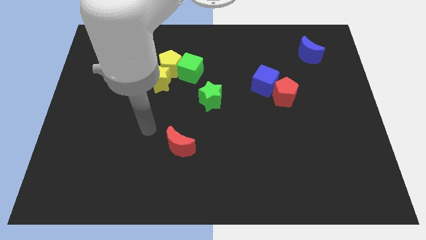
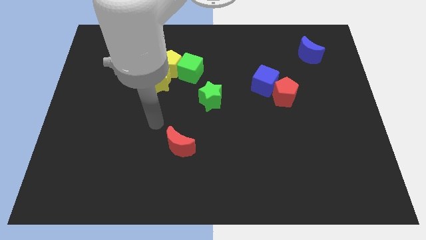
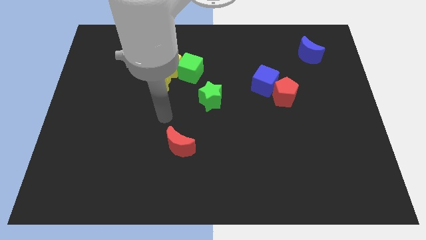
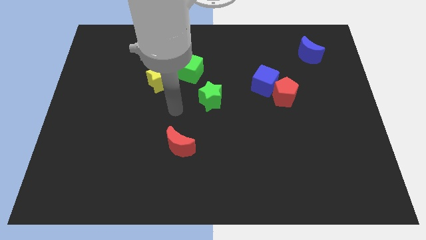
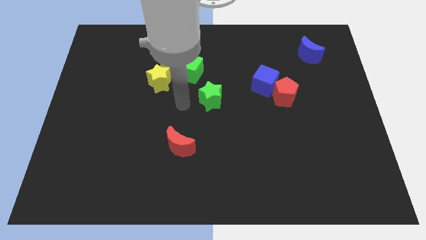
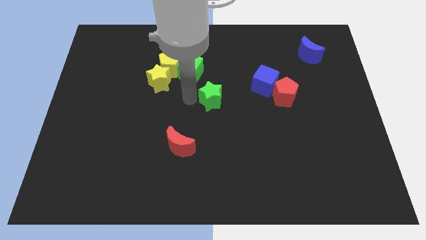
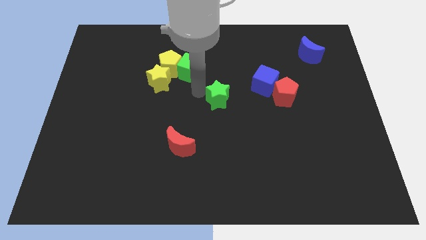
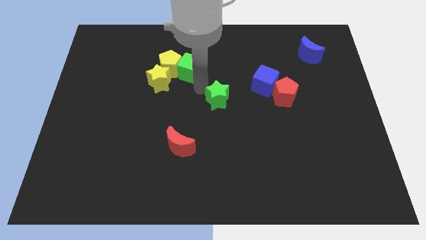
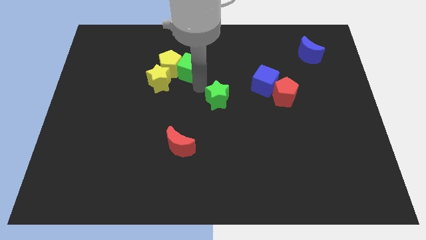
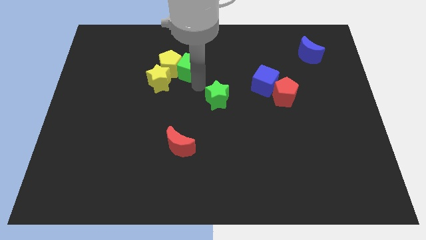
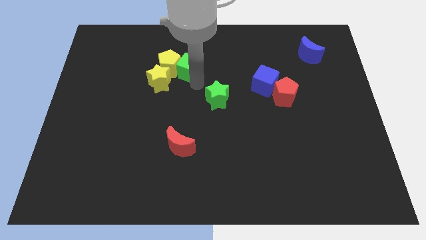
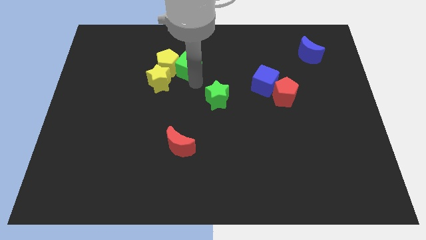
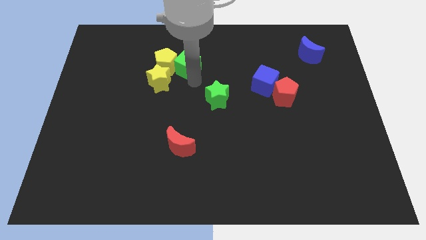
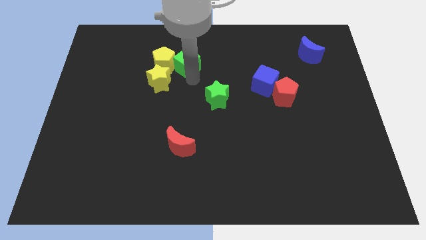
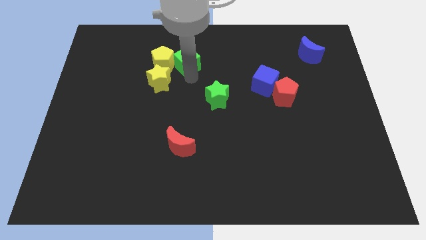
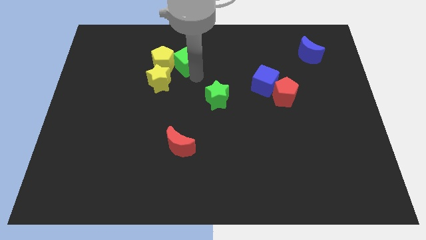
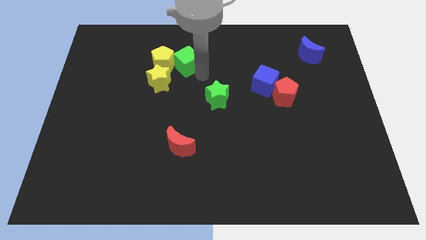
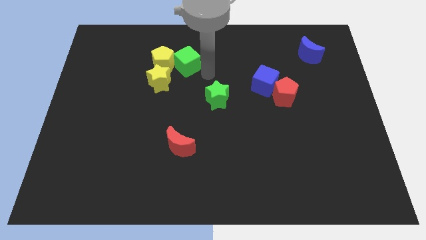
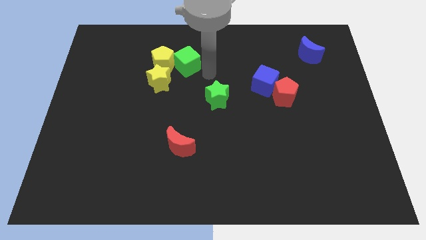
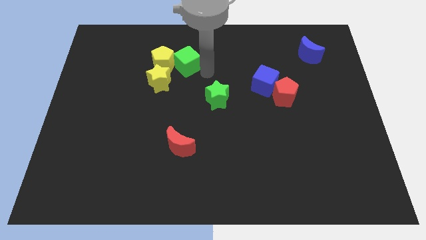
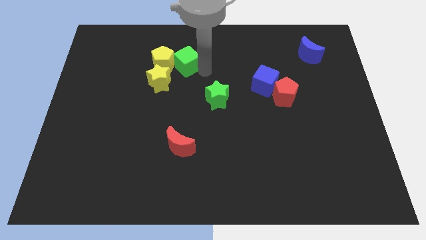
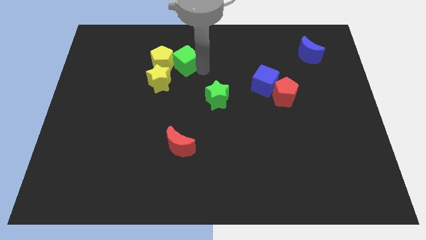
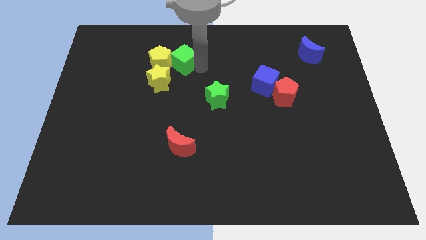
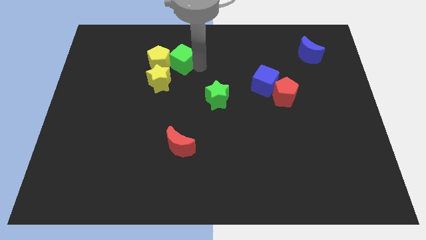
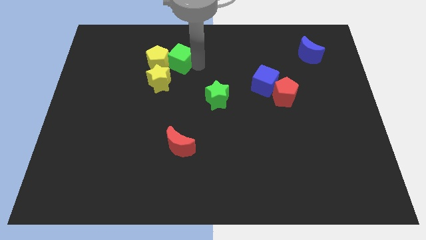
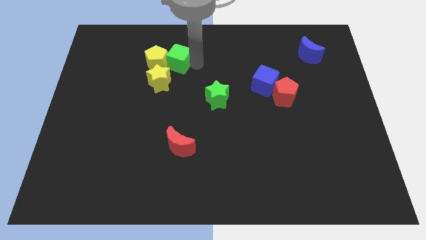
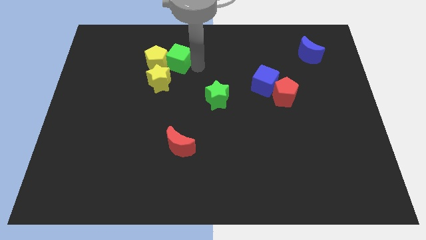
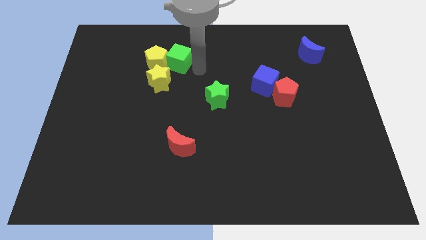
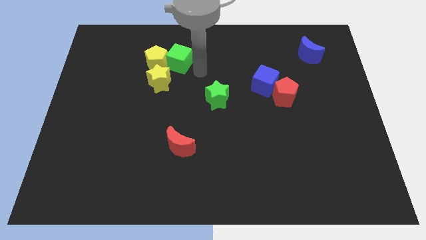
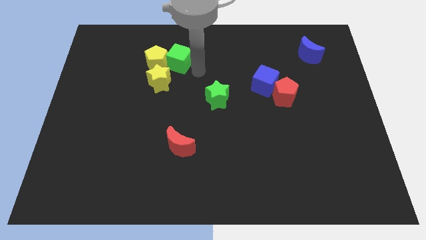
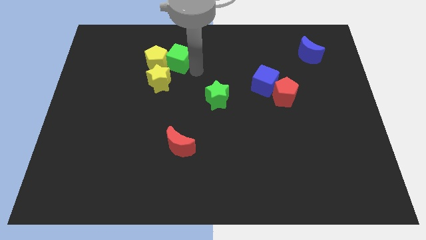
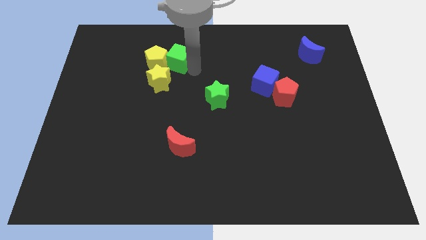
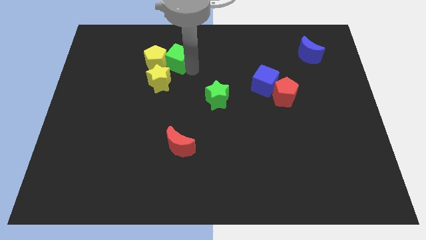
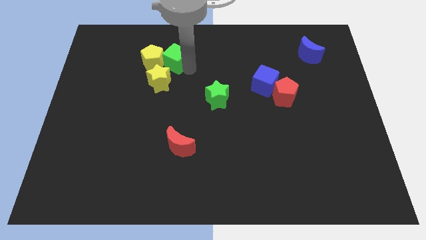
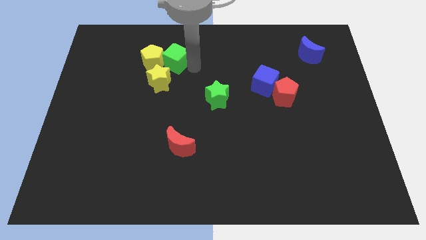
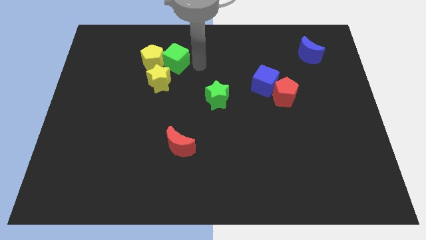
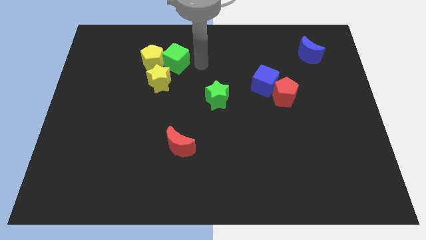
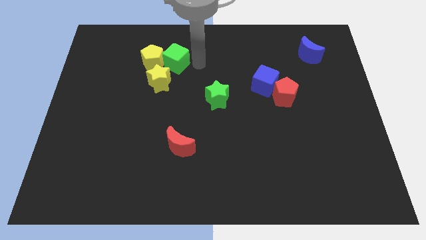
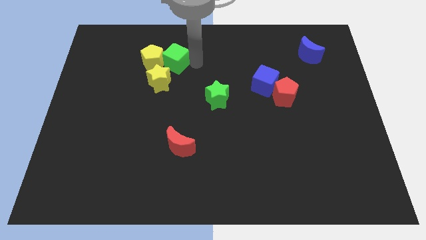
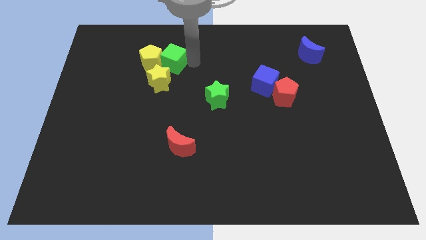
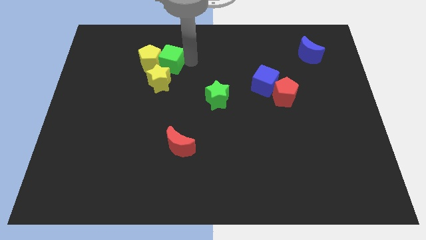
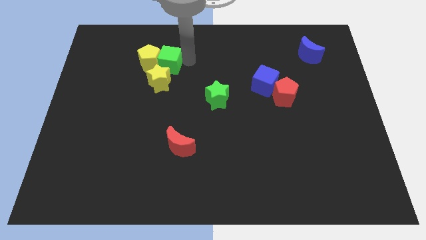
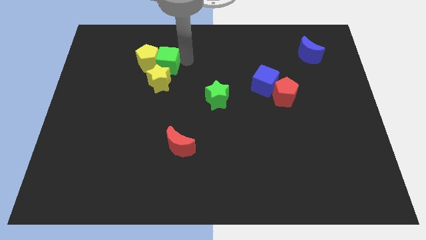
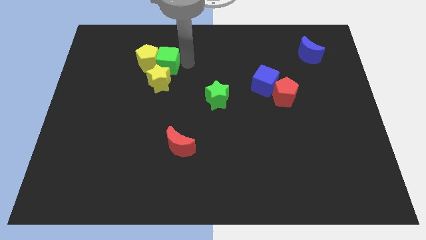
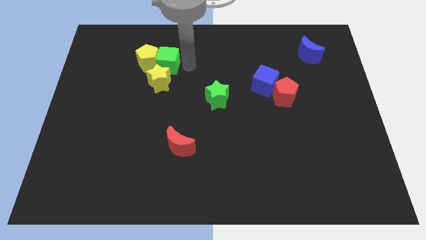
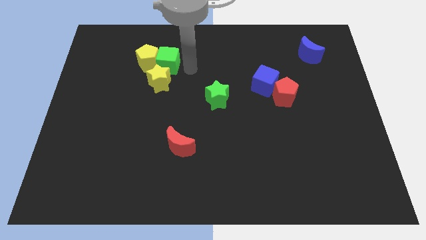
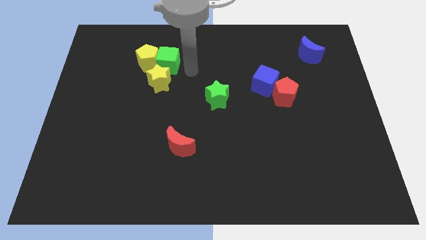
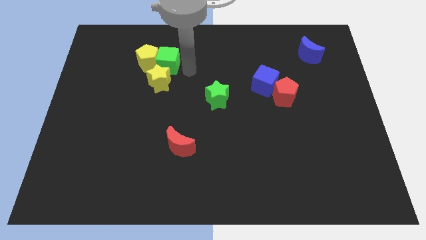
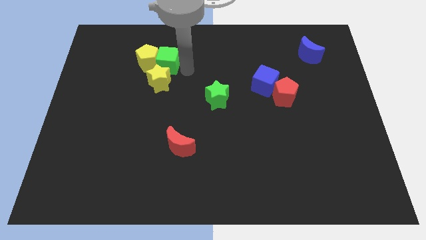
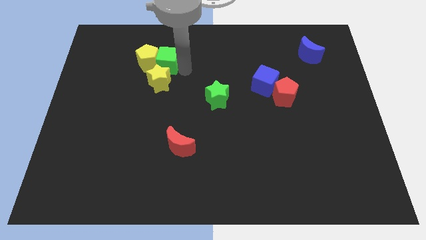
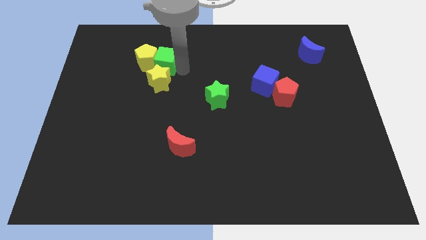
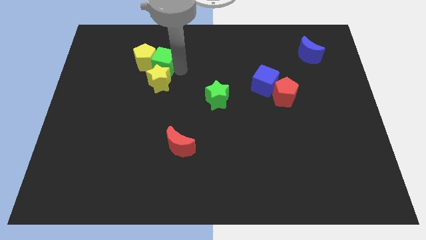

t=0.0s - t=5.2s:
move the green cube to the left a bit

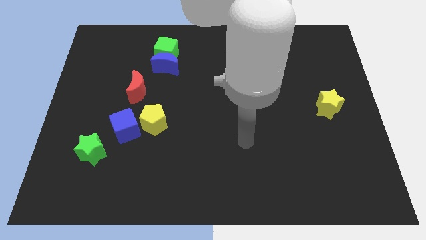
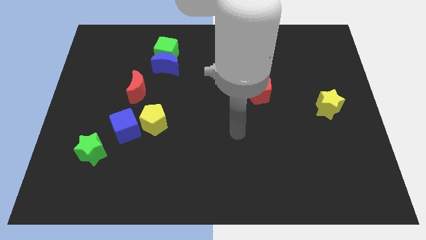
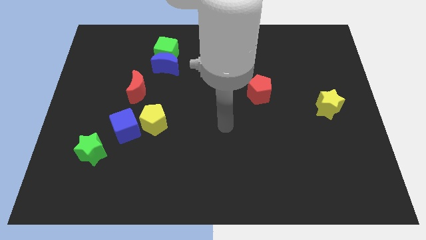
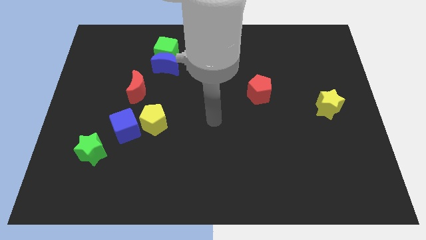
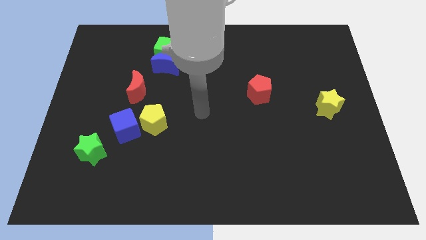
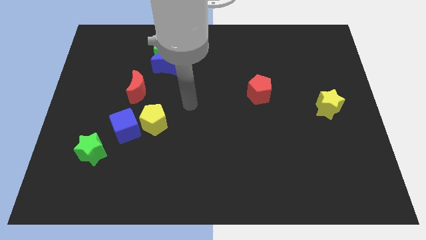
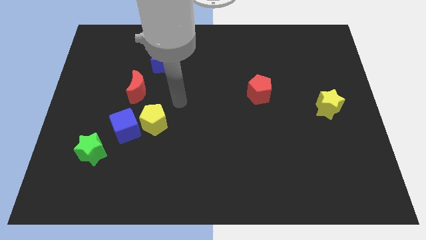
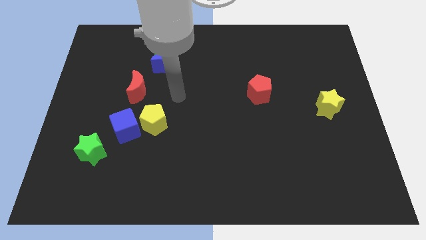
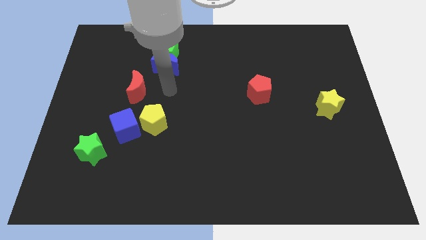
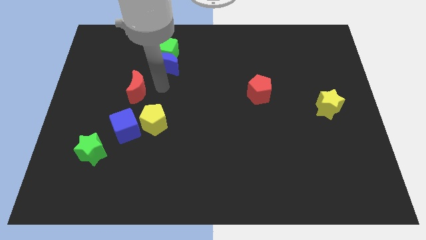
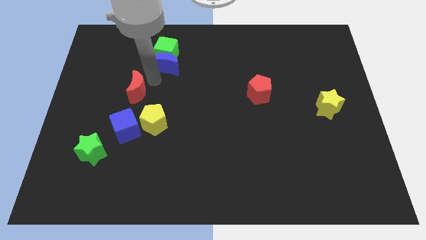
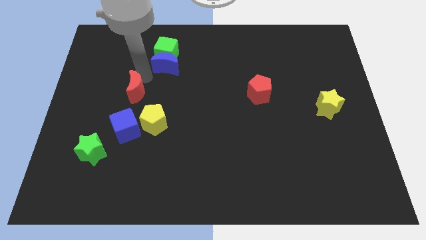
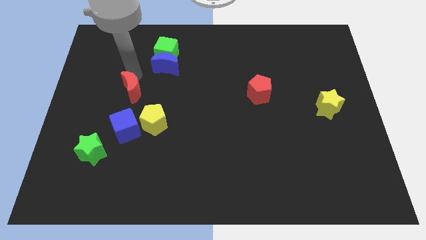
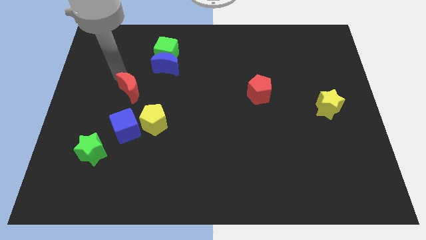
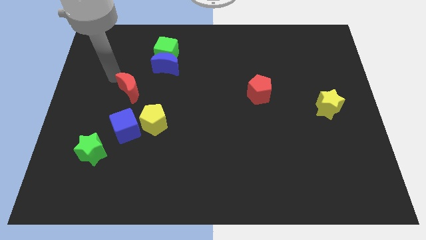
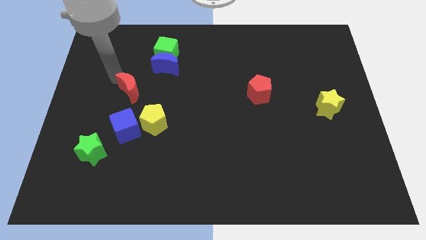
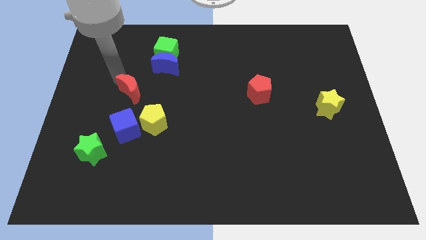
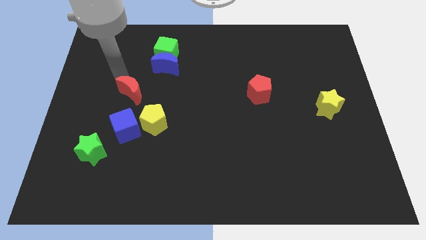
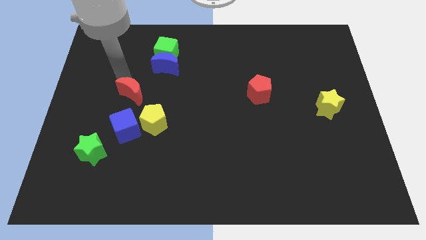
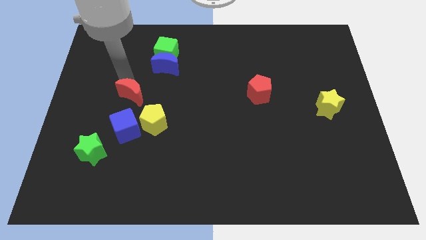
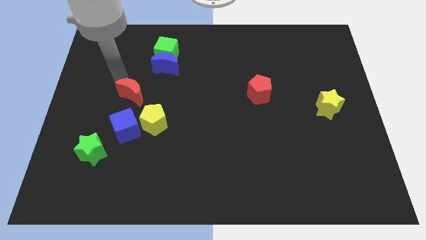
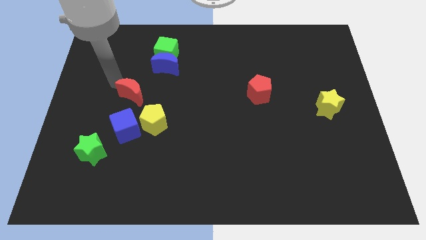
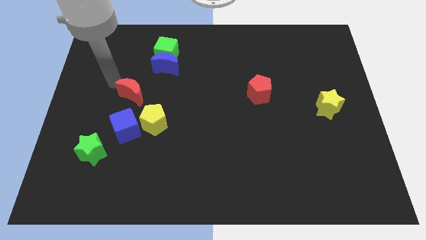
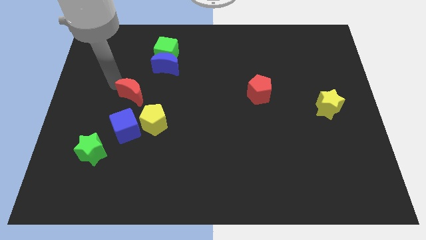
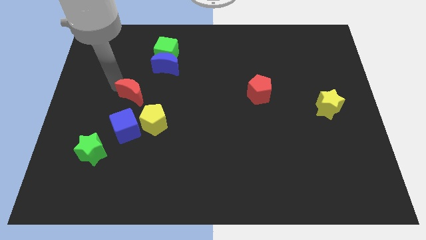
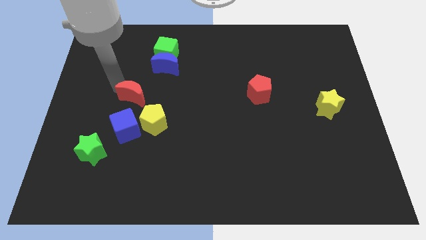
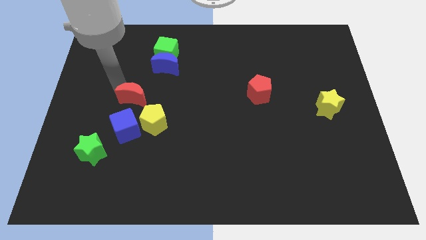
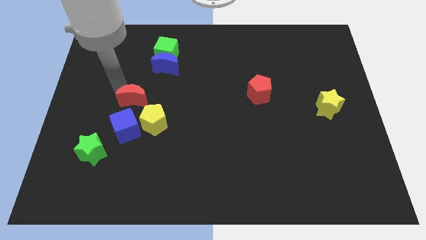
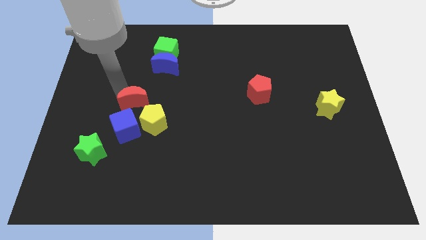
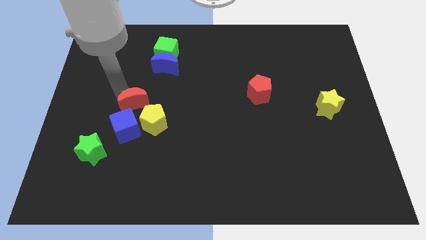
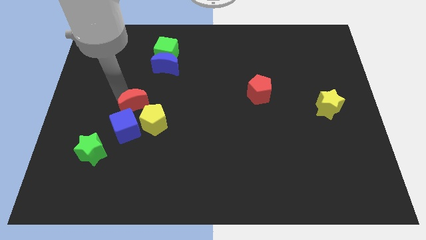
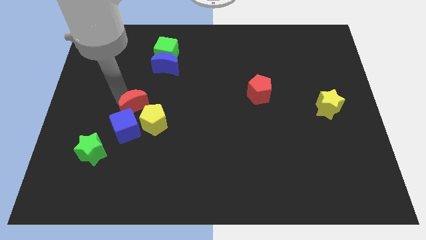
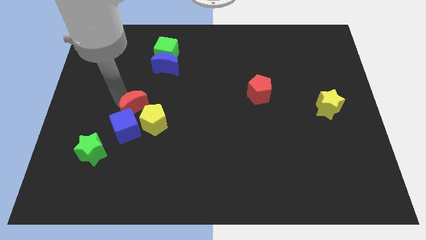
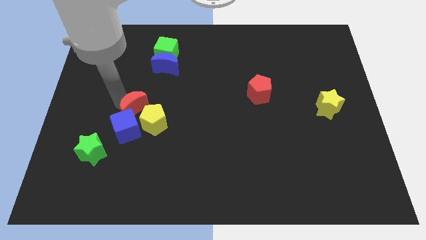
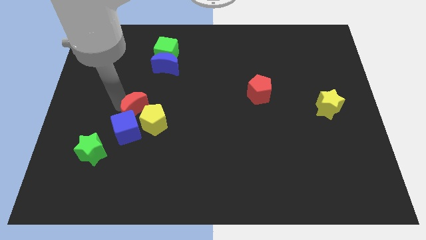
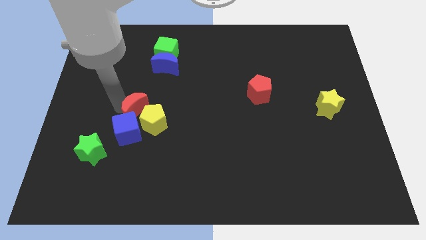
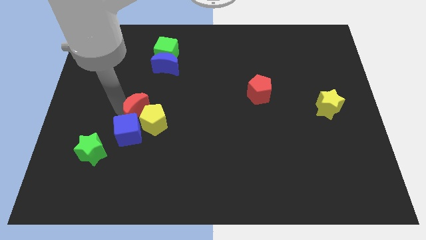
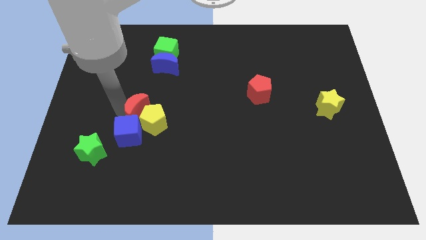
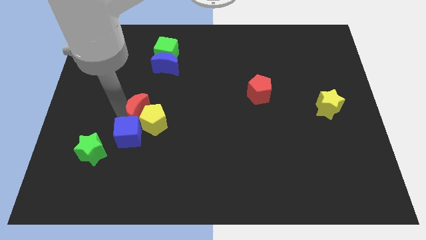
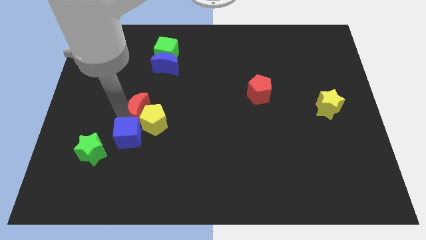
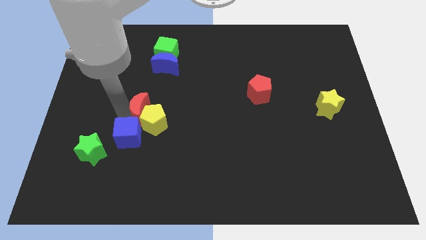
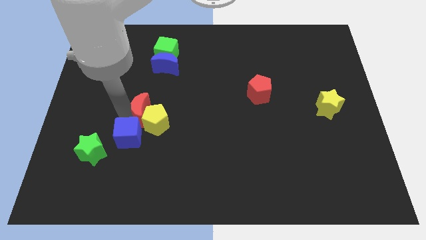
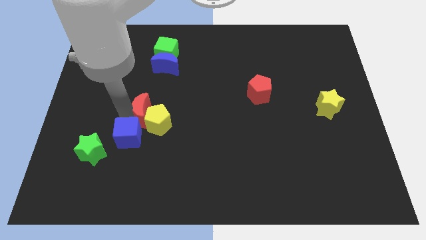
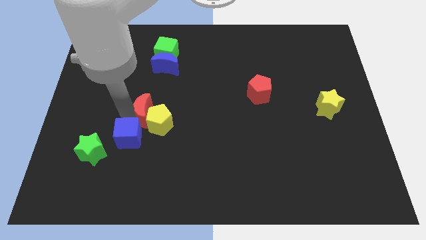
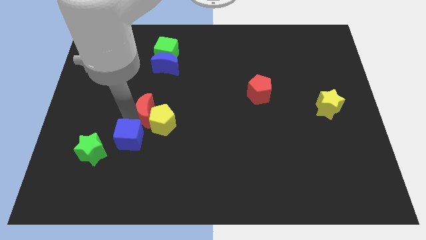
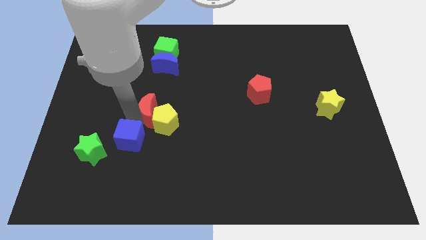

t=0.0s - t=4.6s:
slightly slide the red moon downwards and right diagonally
